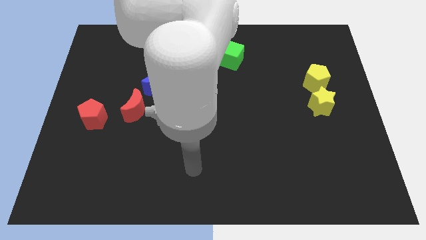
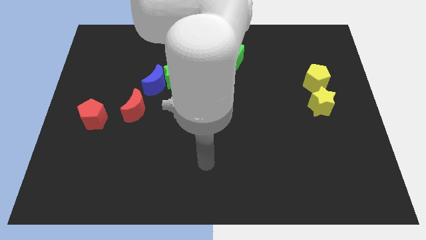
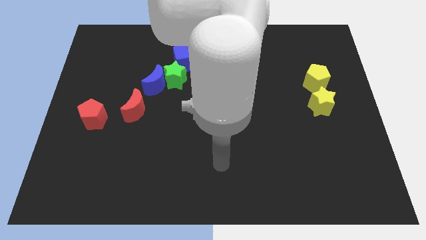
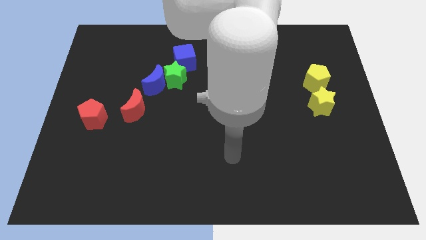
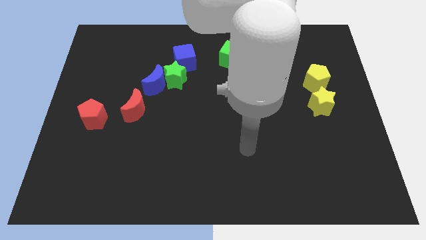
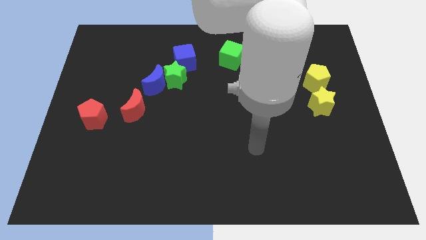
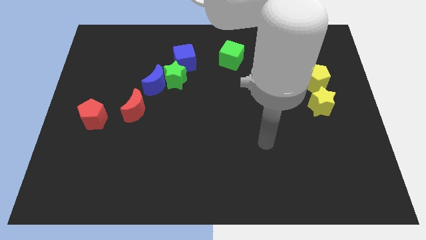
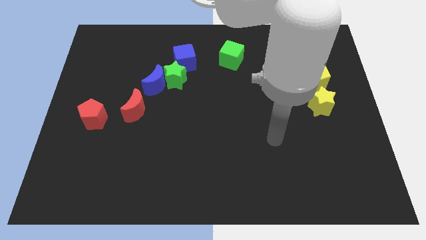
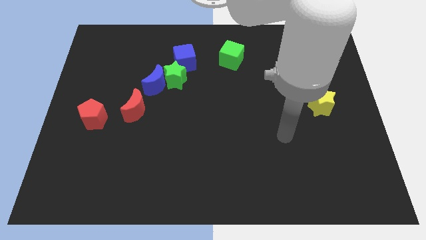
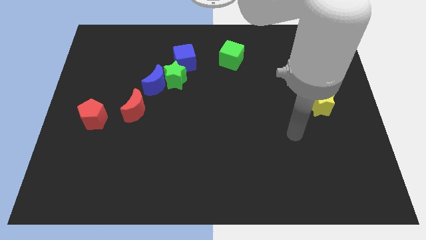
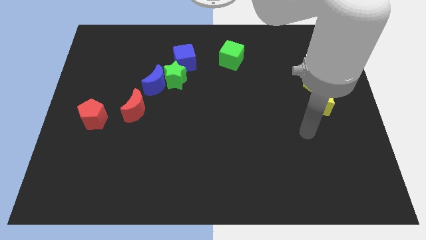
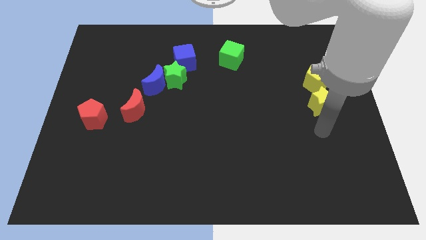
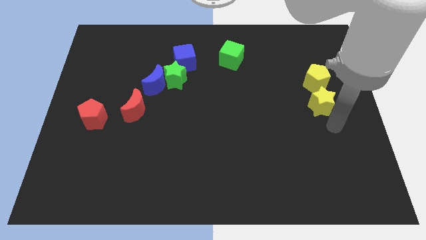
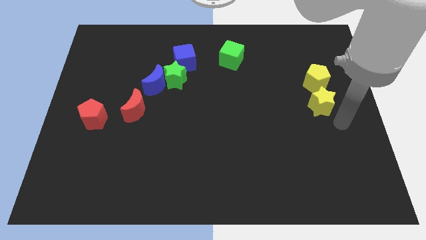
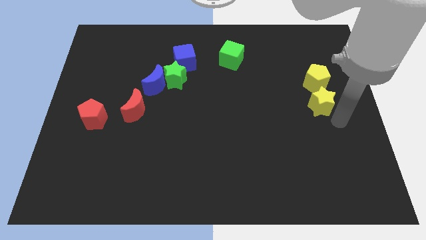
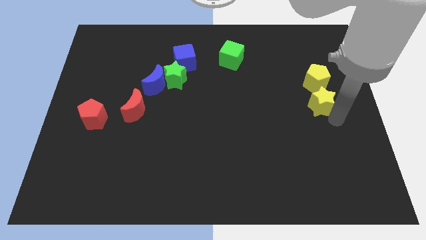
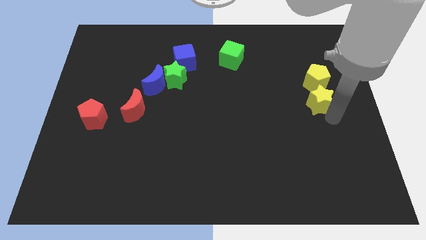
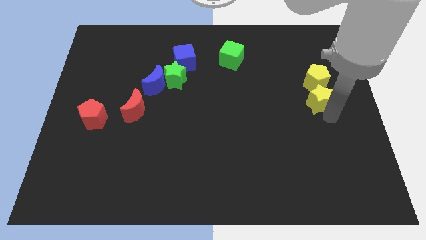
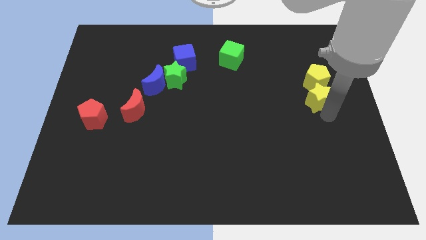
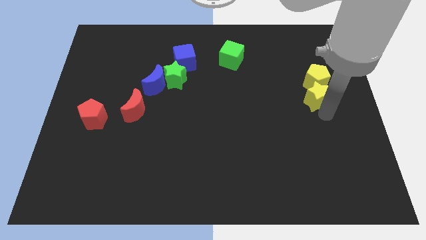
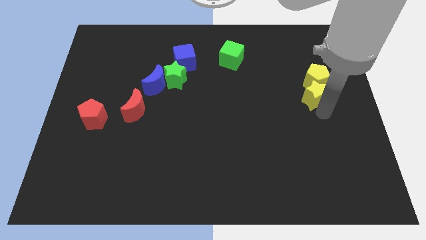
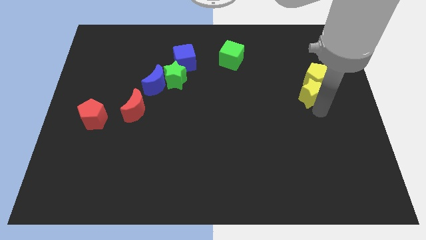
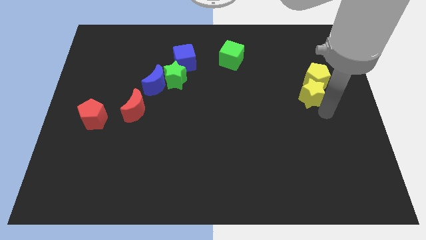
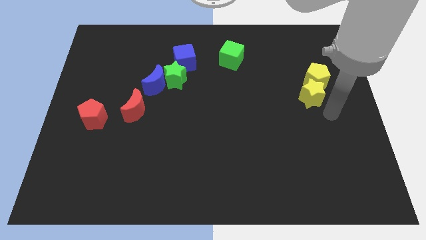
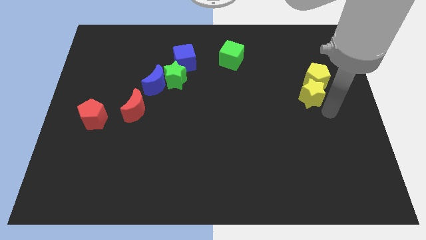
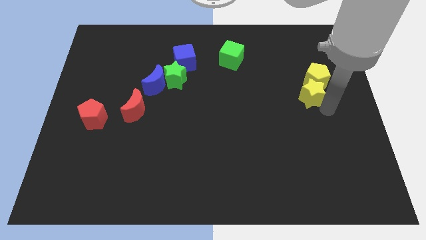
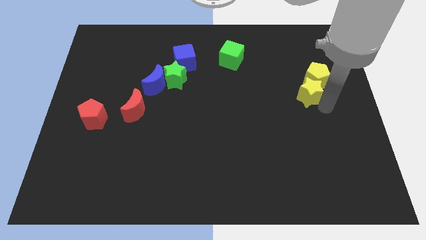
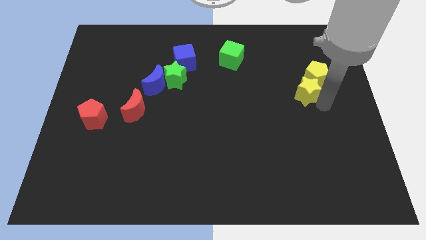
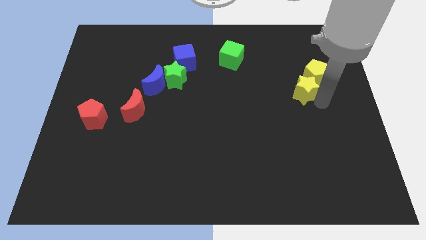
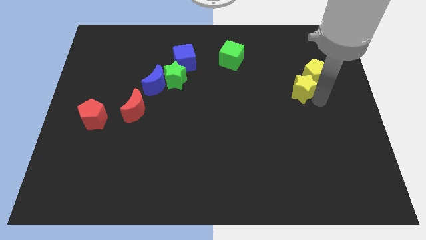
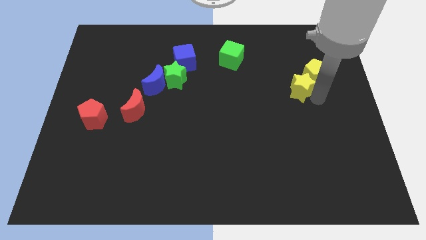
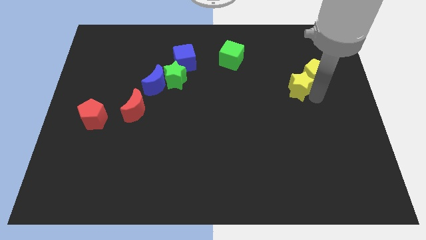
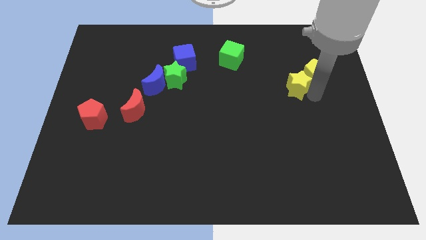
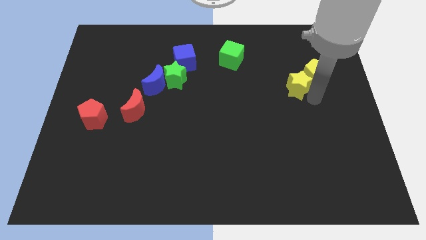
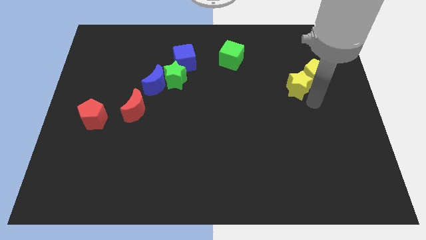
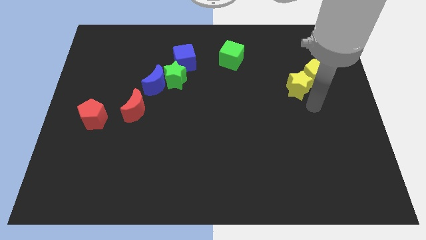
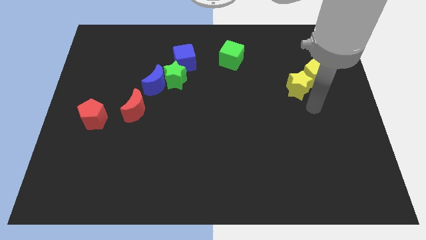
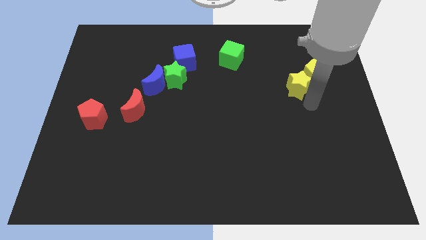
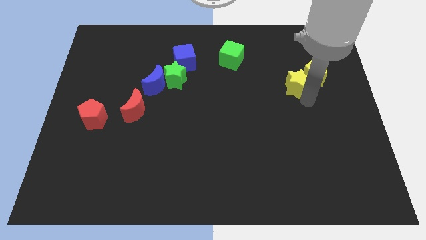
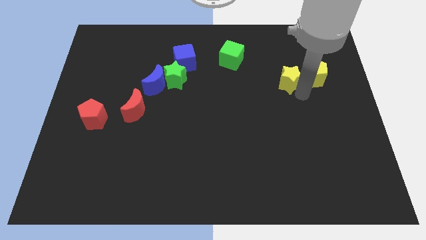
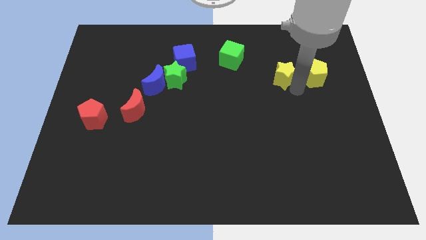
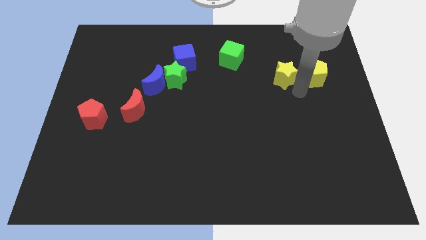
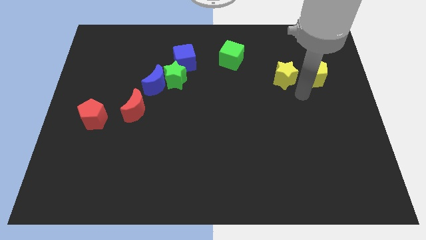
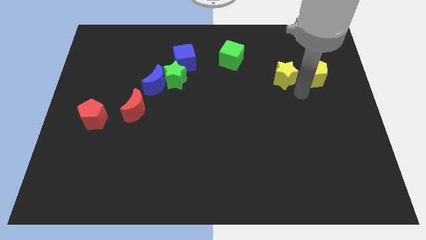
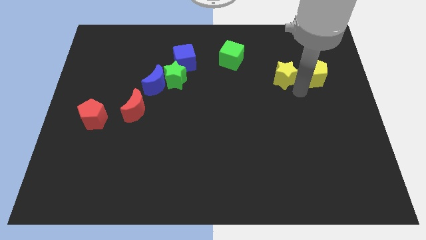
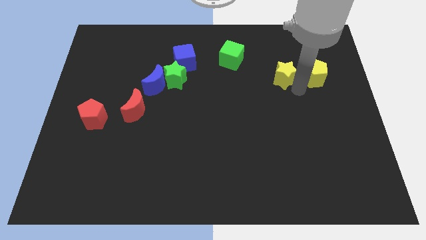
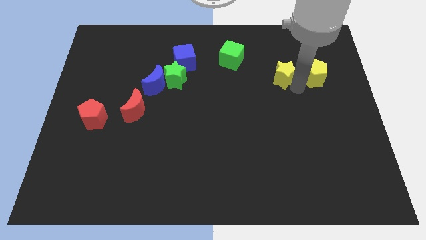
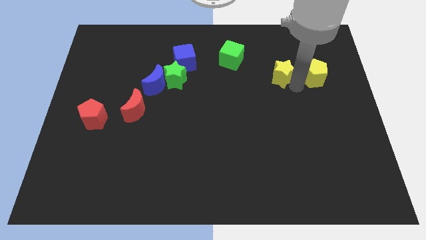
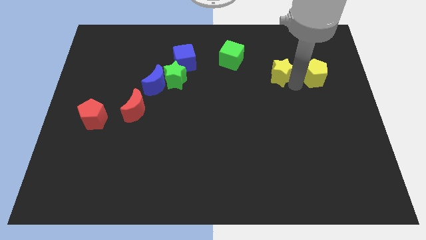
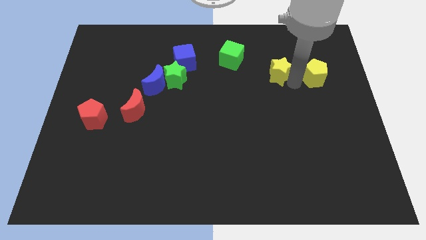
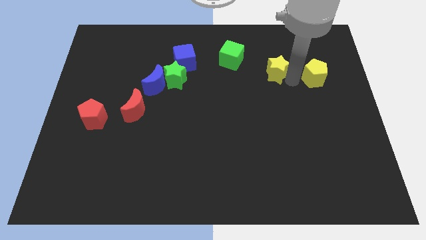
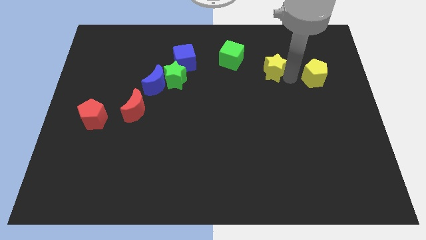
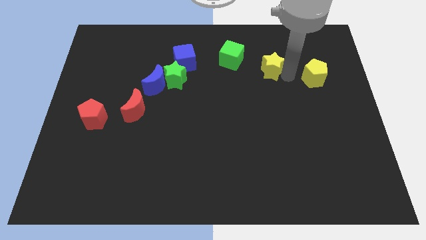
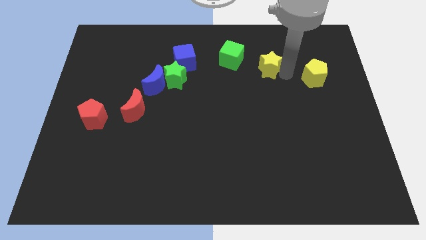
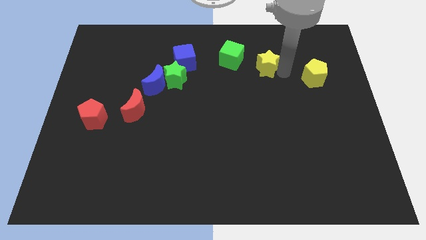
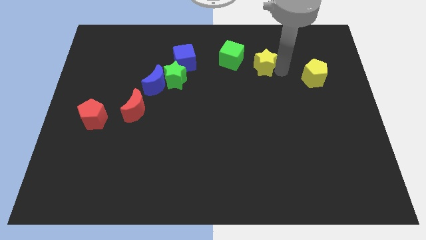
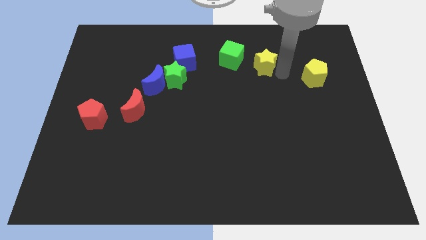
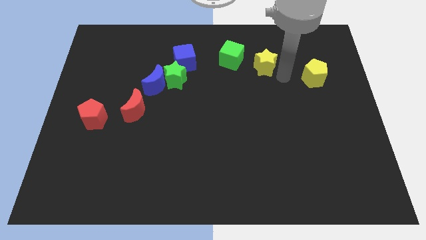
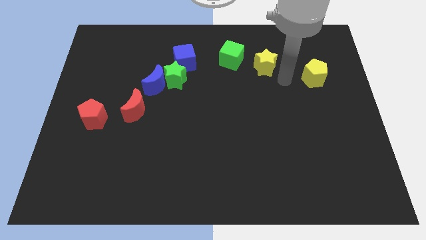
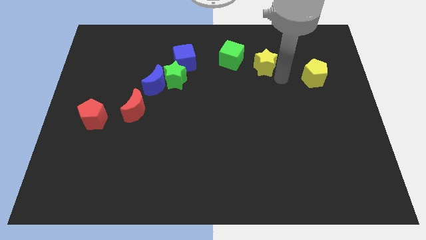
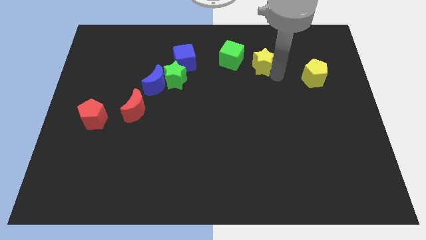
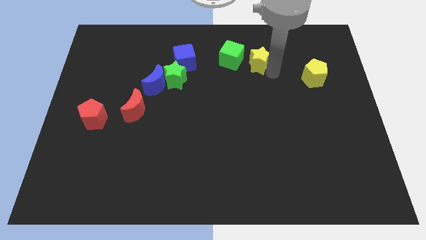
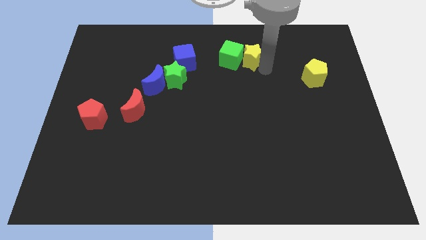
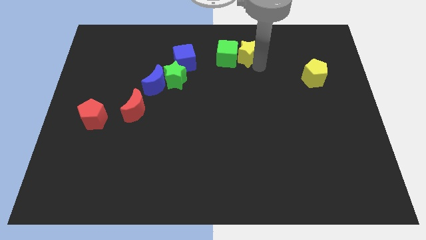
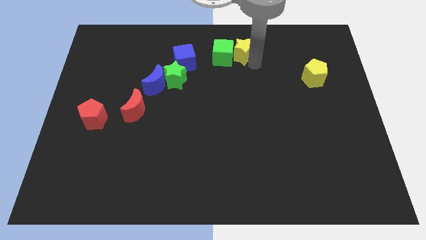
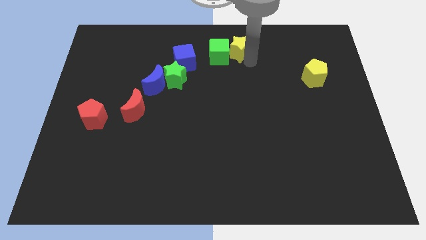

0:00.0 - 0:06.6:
slide the yellow star to the top

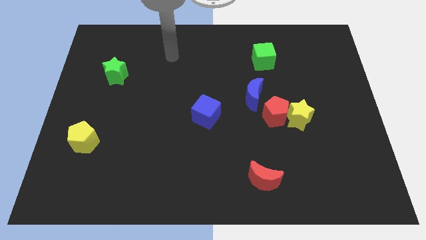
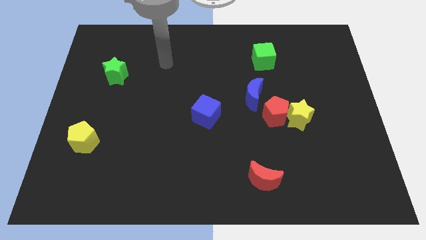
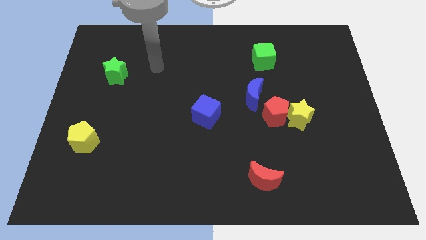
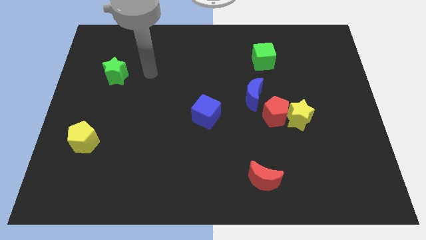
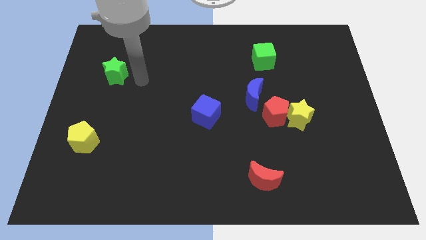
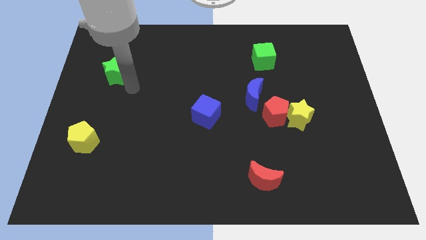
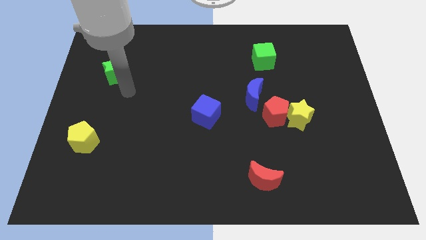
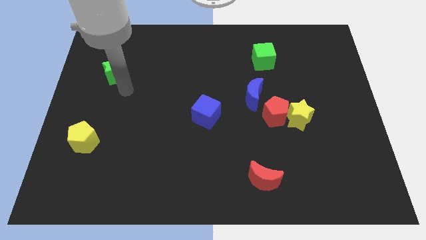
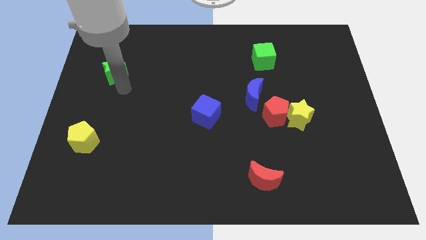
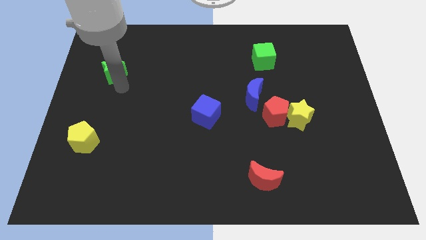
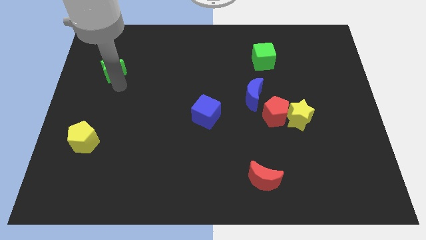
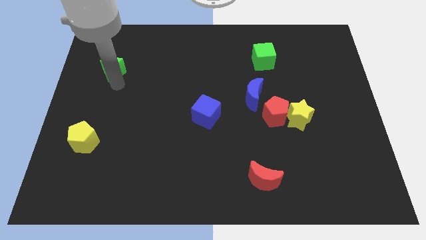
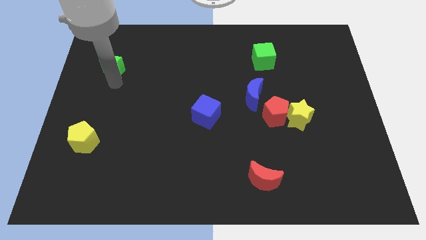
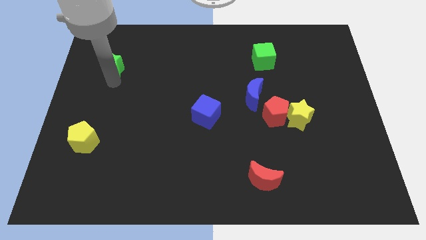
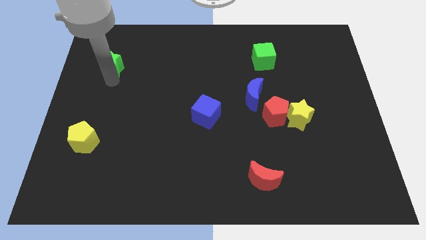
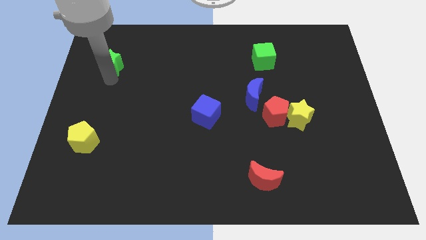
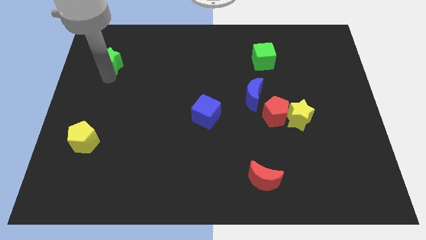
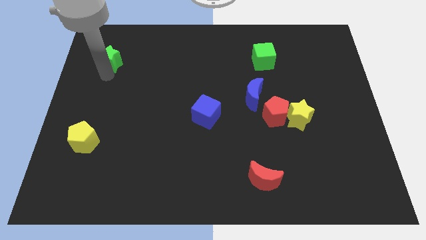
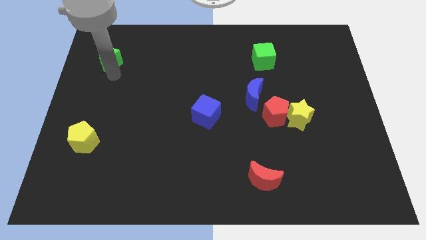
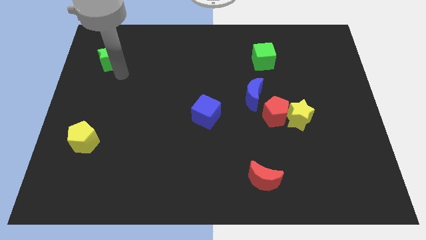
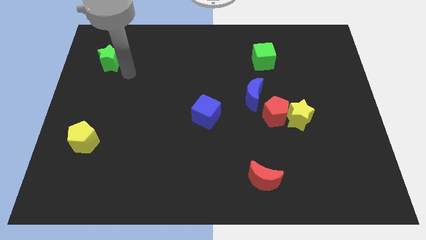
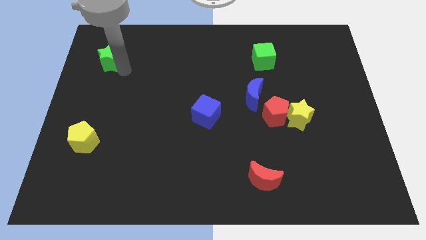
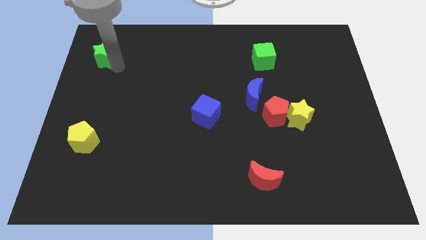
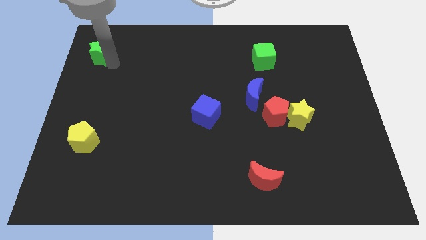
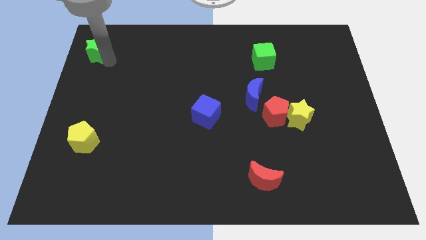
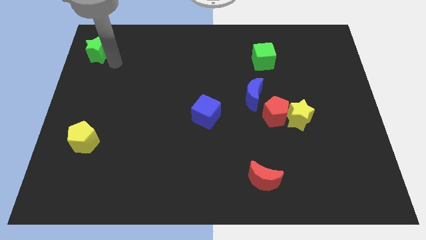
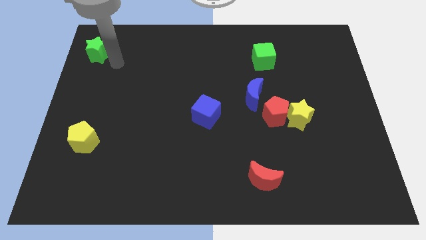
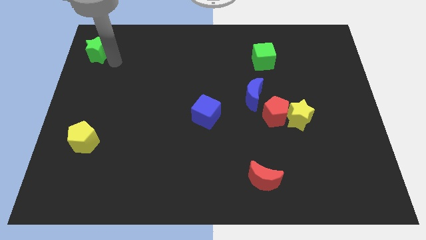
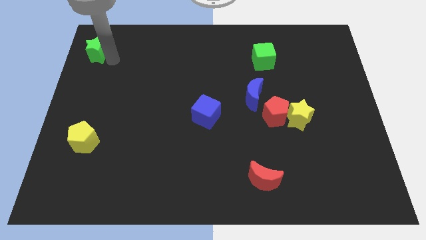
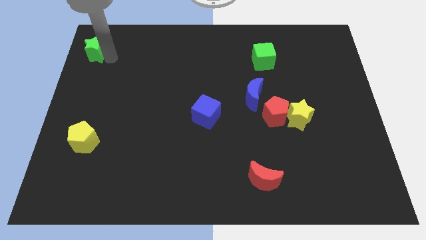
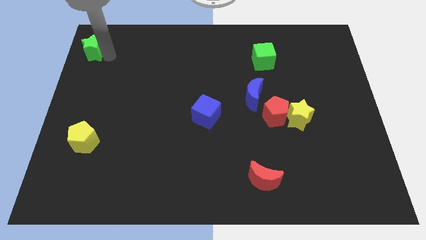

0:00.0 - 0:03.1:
put the green star to the upper left corner
